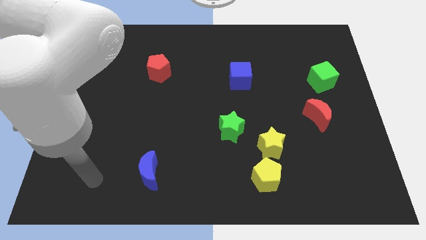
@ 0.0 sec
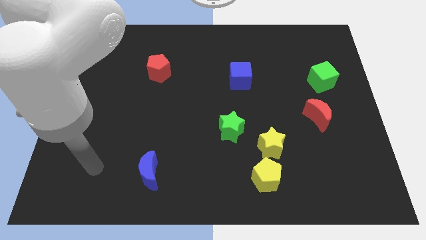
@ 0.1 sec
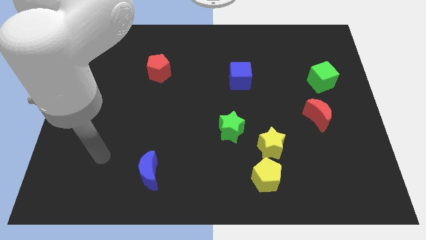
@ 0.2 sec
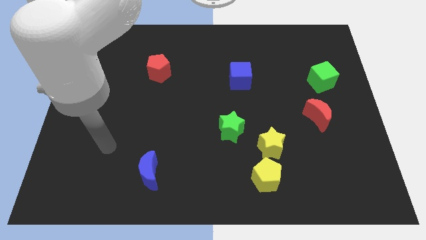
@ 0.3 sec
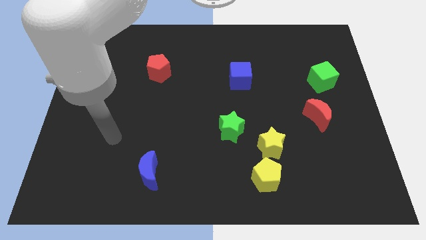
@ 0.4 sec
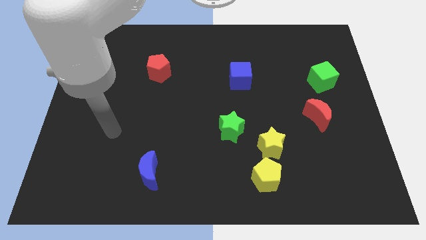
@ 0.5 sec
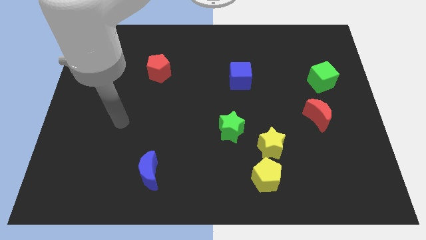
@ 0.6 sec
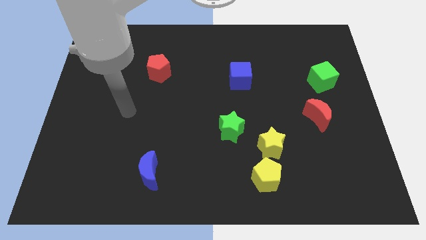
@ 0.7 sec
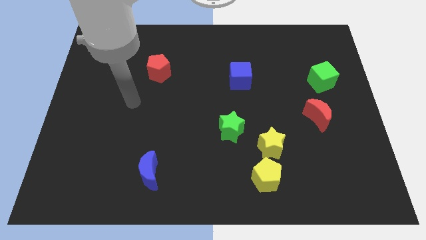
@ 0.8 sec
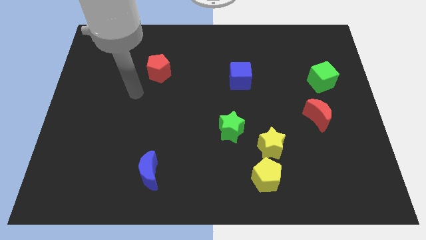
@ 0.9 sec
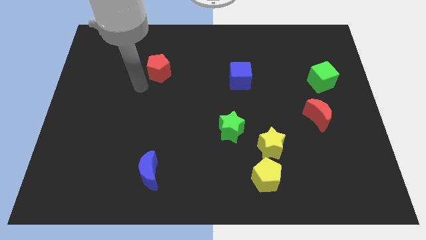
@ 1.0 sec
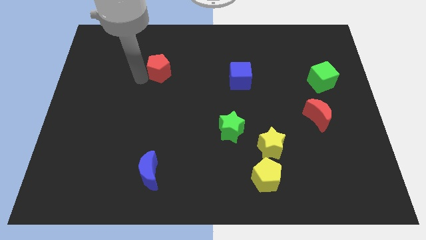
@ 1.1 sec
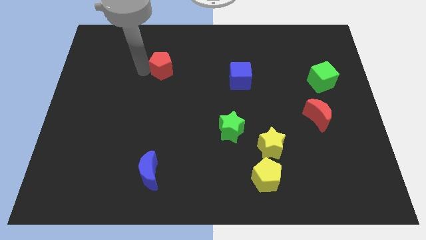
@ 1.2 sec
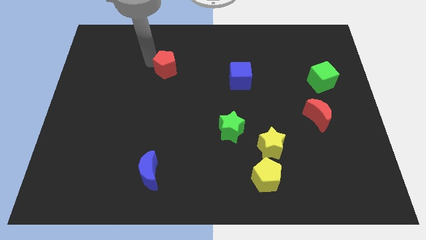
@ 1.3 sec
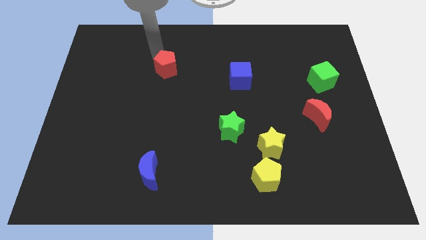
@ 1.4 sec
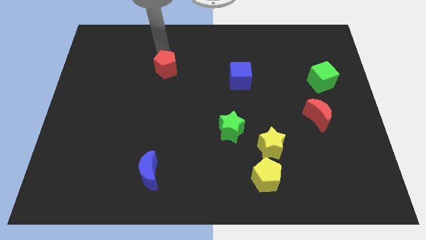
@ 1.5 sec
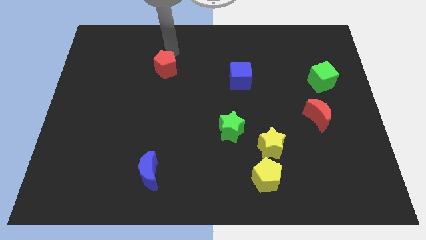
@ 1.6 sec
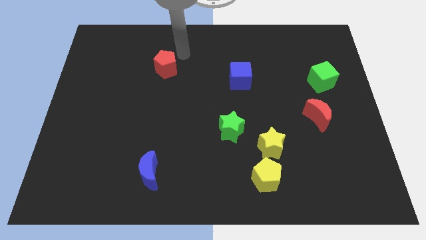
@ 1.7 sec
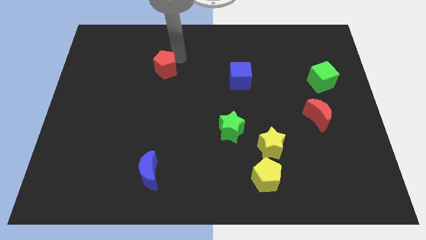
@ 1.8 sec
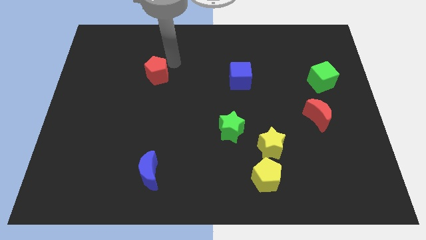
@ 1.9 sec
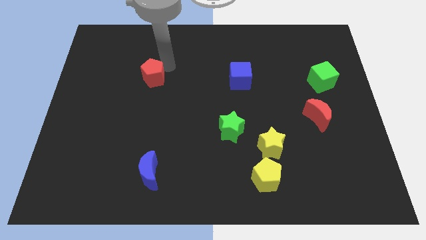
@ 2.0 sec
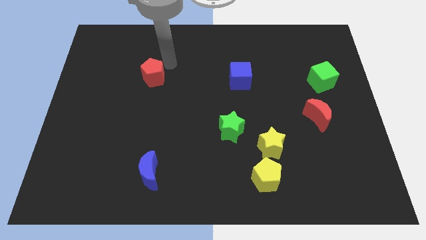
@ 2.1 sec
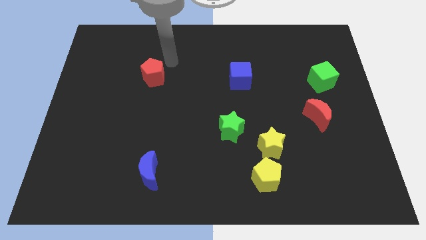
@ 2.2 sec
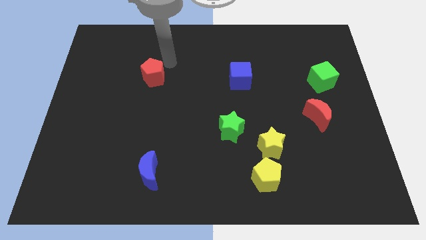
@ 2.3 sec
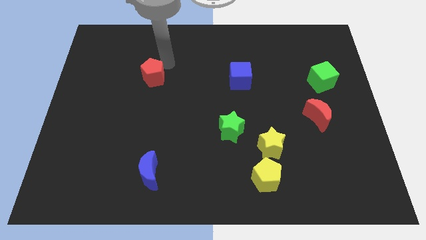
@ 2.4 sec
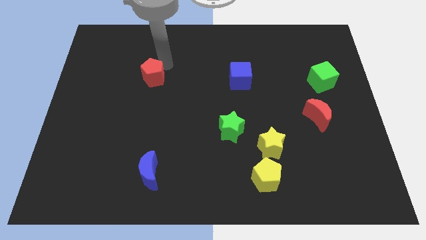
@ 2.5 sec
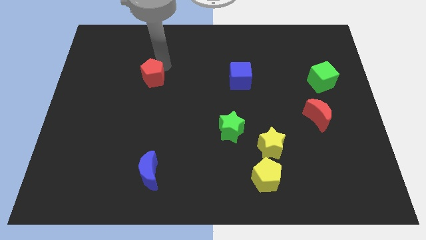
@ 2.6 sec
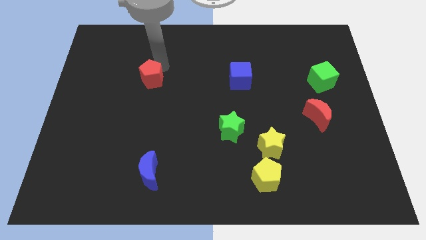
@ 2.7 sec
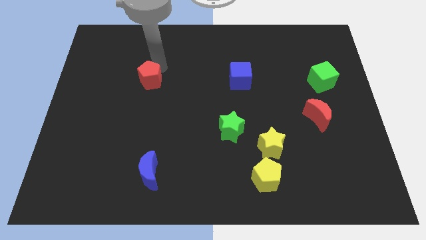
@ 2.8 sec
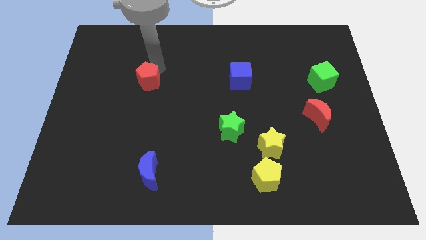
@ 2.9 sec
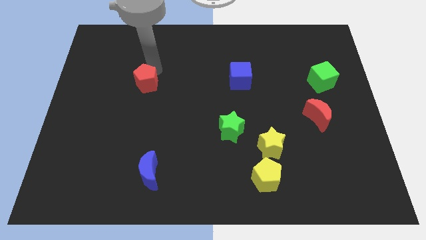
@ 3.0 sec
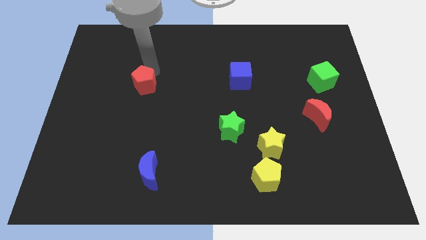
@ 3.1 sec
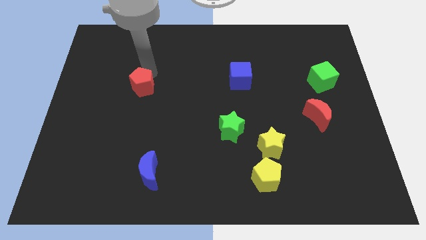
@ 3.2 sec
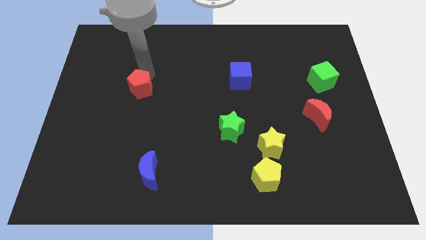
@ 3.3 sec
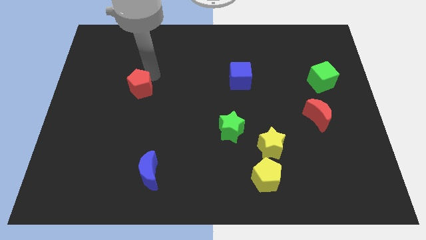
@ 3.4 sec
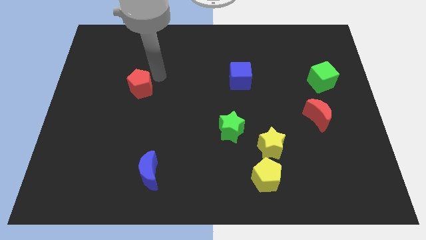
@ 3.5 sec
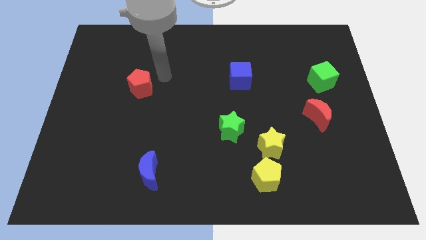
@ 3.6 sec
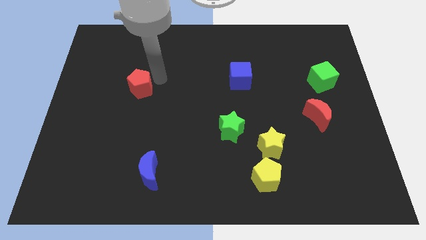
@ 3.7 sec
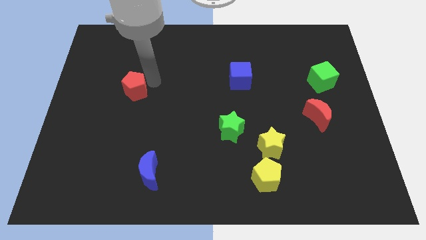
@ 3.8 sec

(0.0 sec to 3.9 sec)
push the red pentagon downwards and left diagonally a little

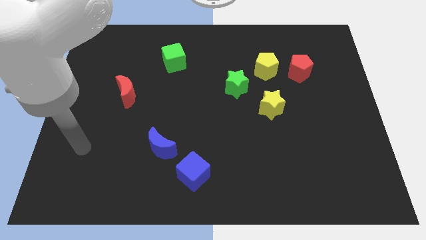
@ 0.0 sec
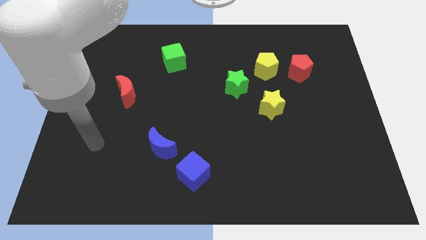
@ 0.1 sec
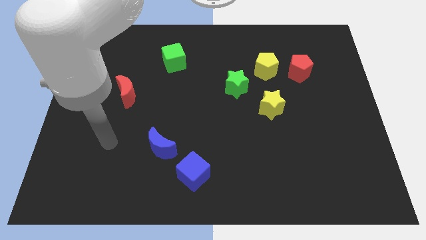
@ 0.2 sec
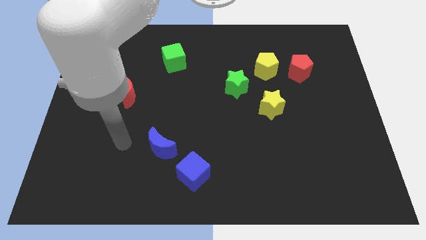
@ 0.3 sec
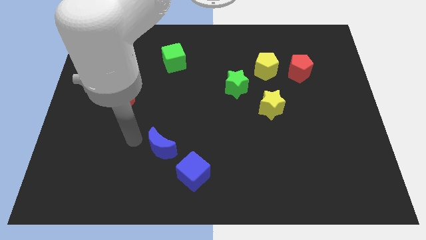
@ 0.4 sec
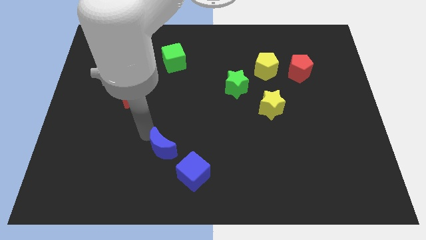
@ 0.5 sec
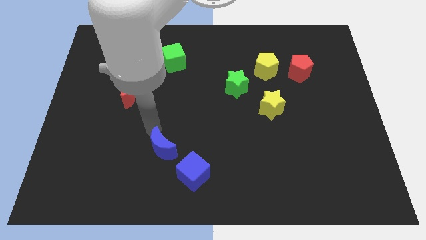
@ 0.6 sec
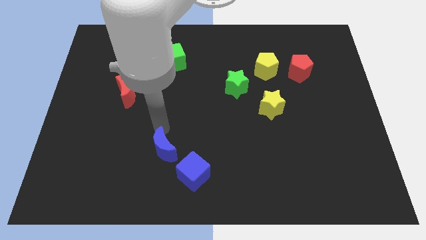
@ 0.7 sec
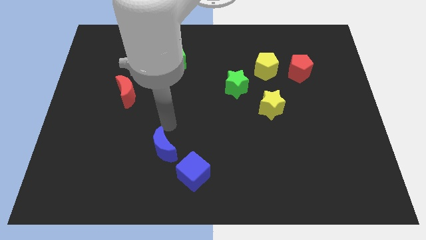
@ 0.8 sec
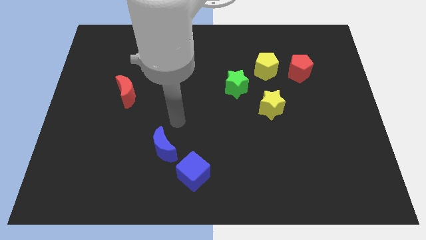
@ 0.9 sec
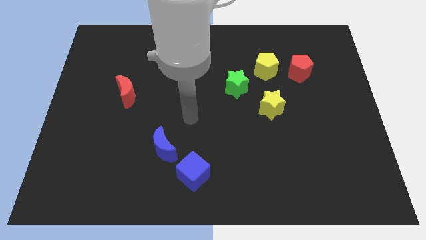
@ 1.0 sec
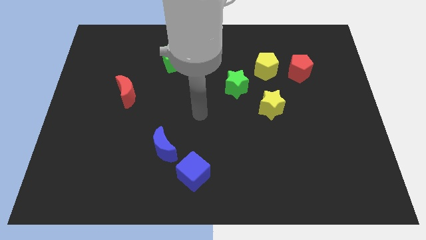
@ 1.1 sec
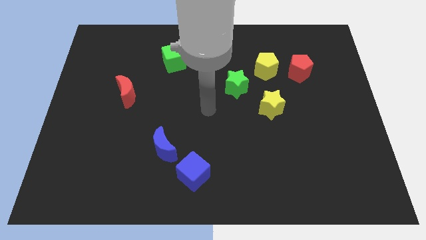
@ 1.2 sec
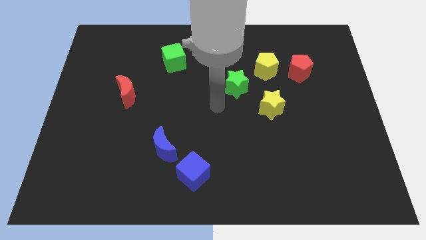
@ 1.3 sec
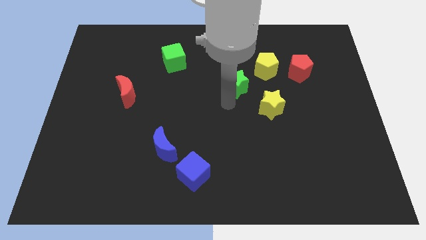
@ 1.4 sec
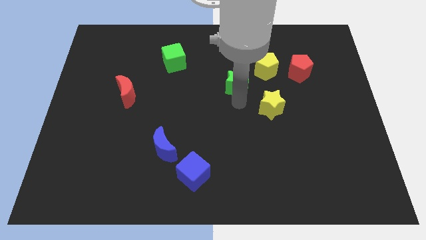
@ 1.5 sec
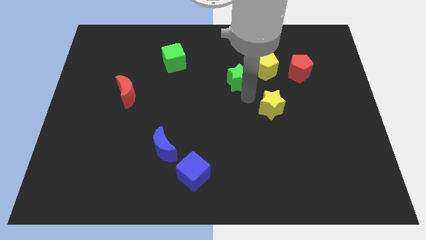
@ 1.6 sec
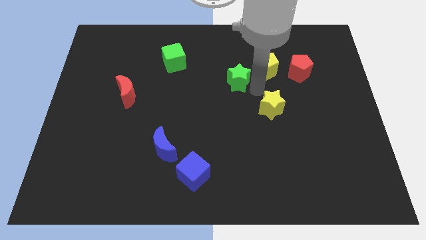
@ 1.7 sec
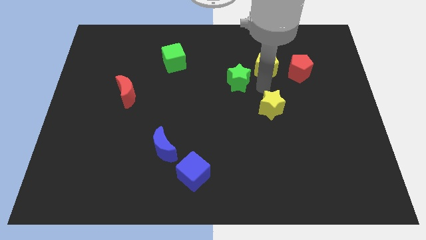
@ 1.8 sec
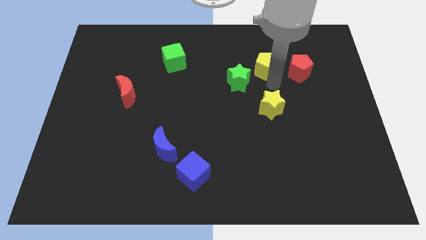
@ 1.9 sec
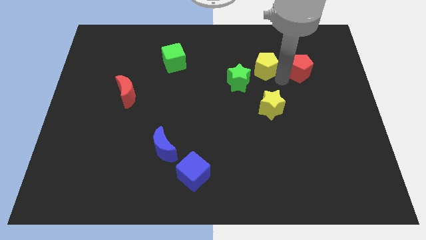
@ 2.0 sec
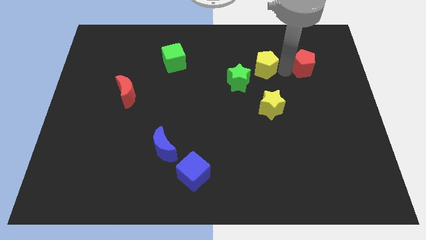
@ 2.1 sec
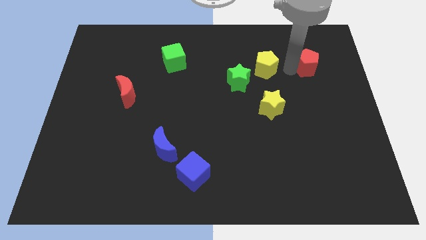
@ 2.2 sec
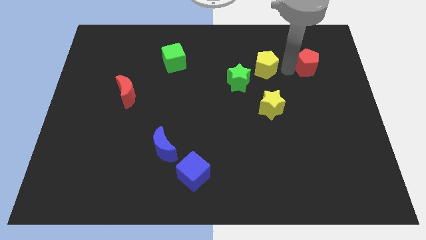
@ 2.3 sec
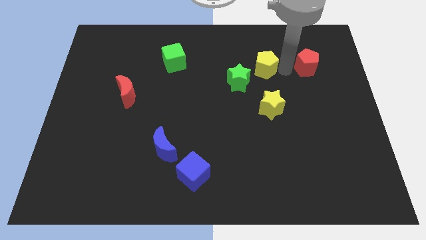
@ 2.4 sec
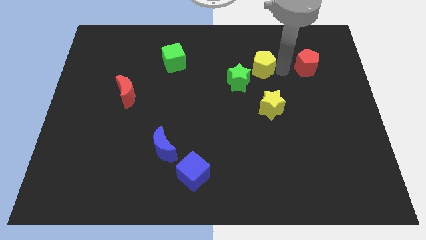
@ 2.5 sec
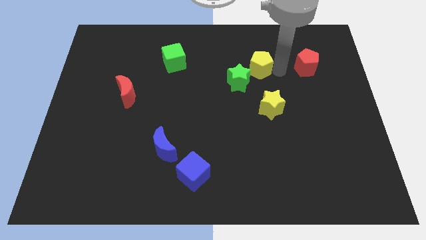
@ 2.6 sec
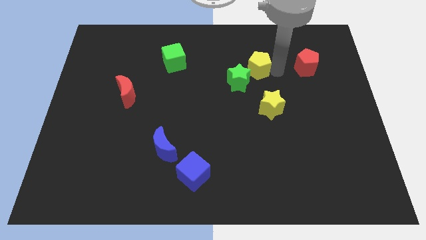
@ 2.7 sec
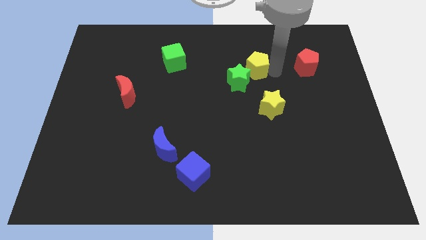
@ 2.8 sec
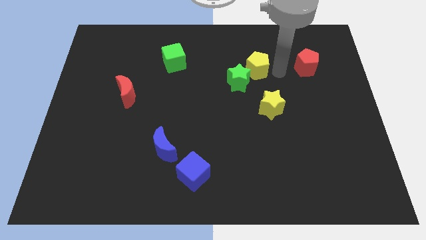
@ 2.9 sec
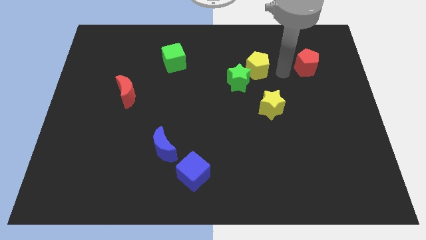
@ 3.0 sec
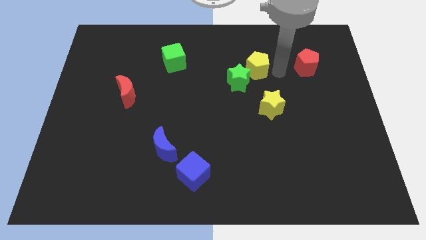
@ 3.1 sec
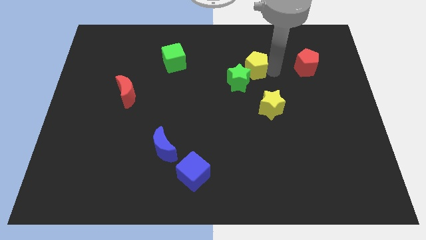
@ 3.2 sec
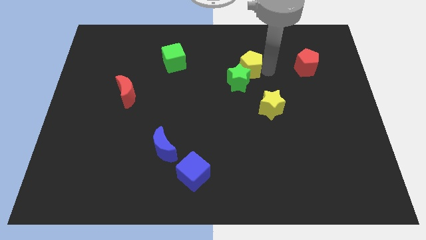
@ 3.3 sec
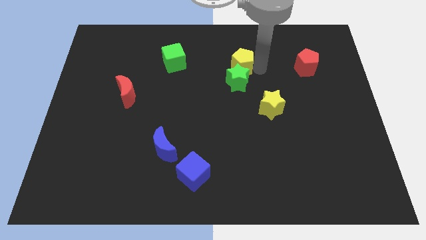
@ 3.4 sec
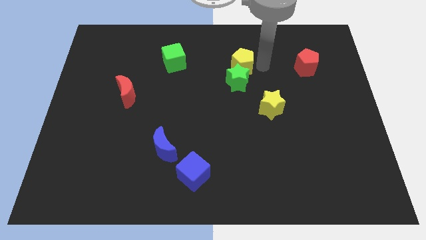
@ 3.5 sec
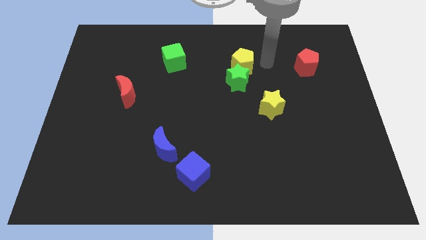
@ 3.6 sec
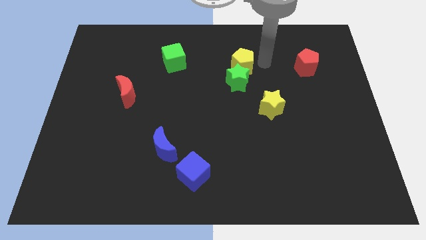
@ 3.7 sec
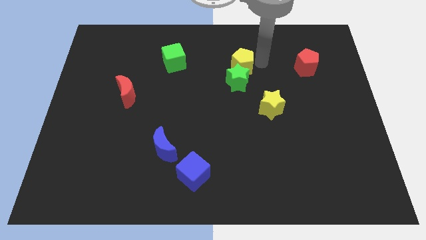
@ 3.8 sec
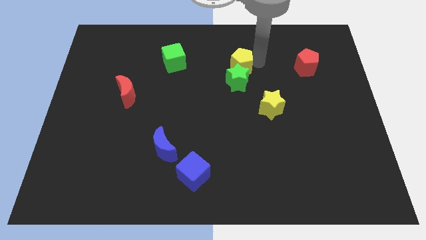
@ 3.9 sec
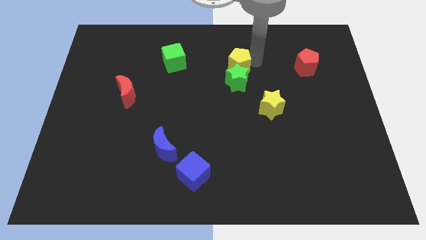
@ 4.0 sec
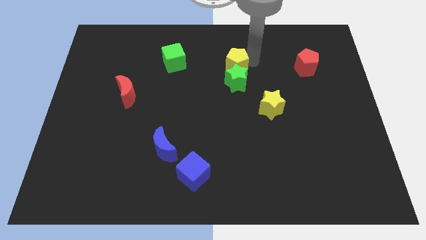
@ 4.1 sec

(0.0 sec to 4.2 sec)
push the yellow pentagon to the left slightly
